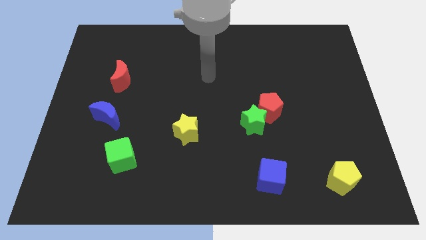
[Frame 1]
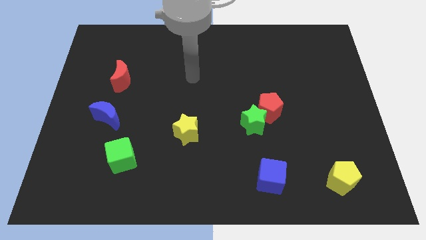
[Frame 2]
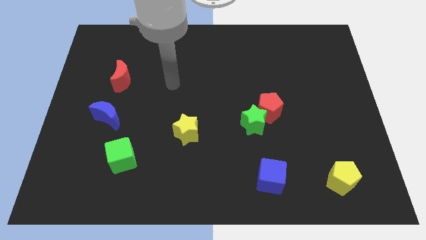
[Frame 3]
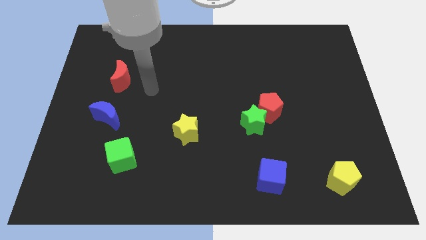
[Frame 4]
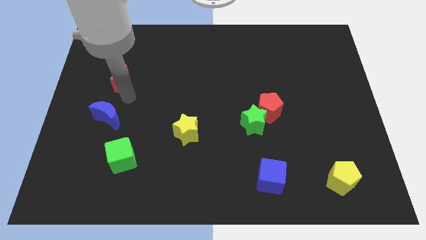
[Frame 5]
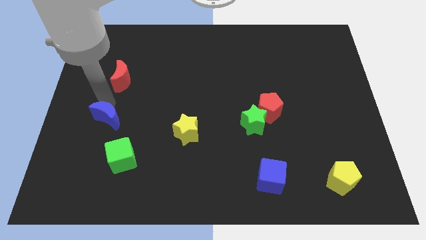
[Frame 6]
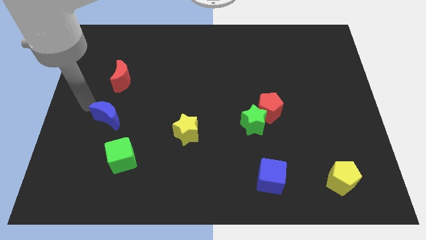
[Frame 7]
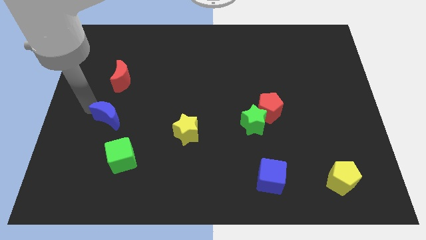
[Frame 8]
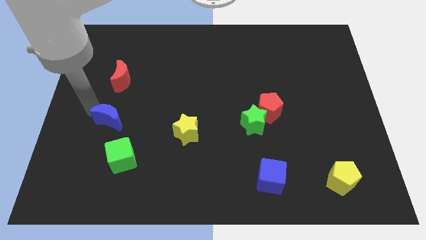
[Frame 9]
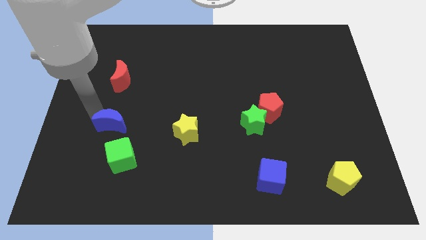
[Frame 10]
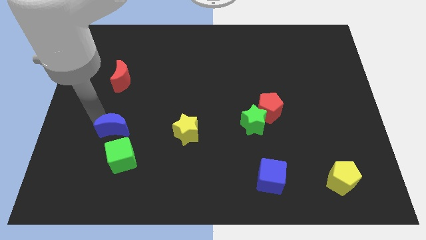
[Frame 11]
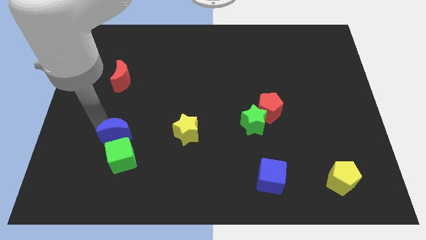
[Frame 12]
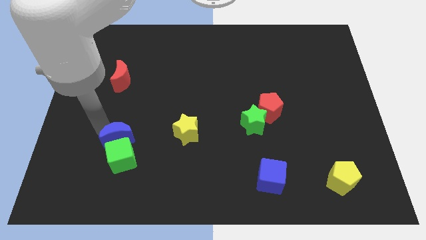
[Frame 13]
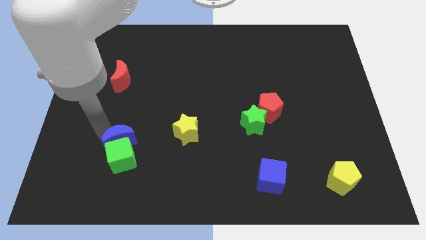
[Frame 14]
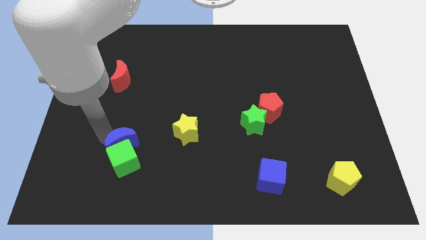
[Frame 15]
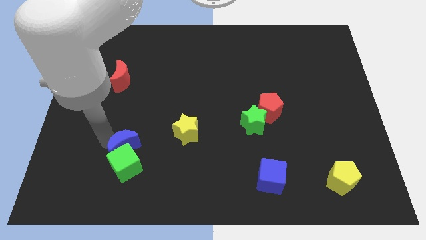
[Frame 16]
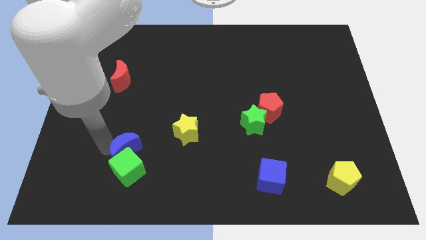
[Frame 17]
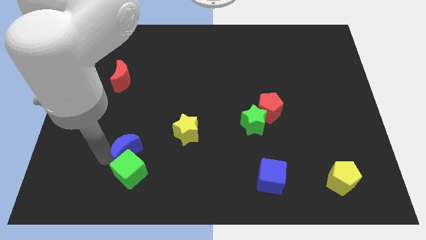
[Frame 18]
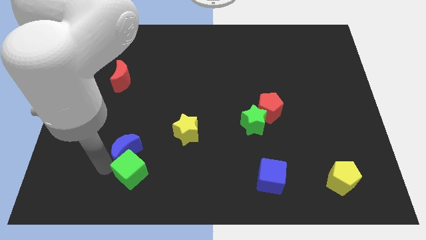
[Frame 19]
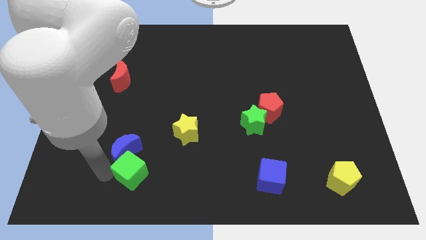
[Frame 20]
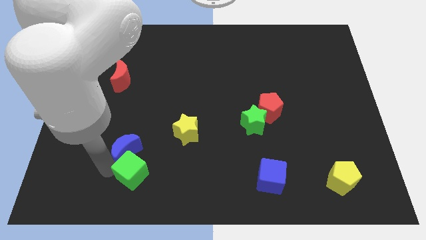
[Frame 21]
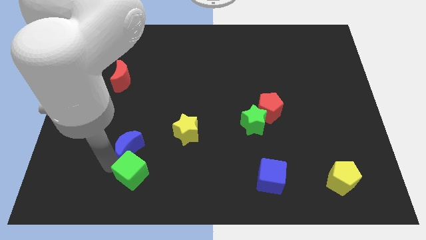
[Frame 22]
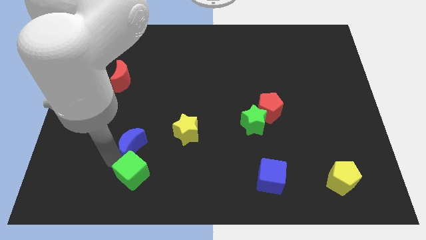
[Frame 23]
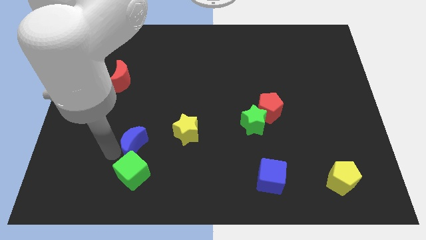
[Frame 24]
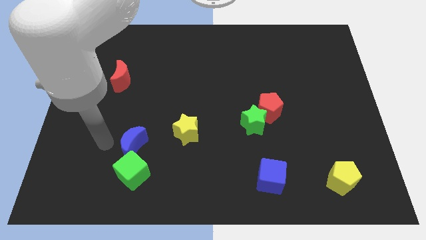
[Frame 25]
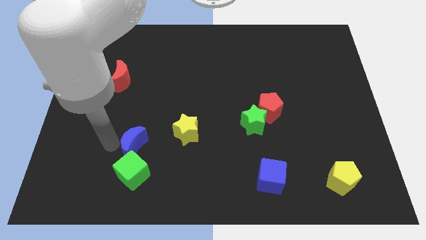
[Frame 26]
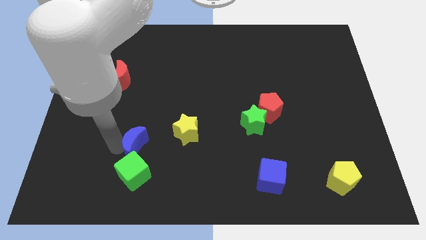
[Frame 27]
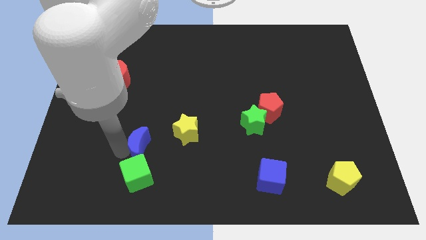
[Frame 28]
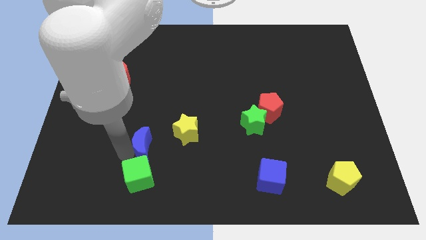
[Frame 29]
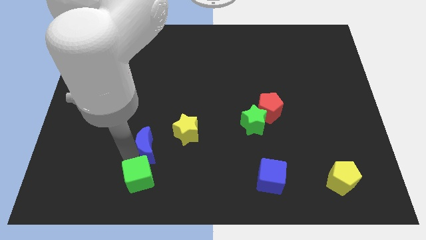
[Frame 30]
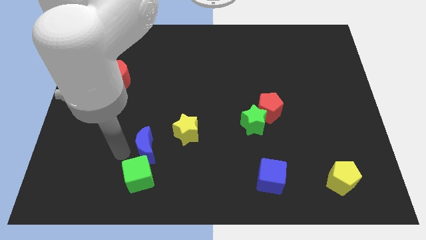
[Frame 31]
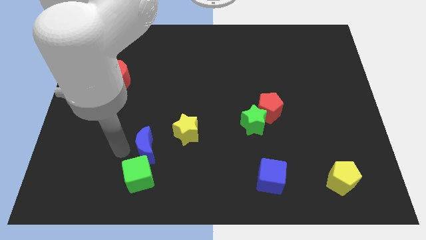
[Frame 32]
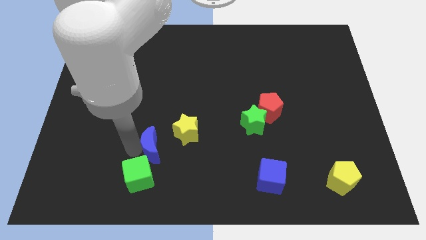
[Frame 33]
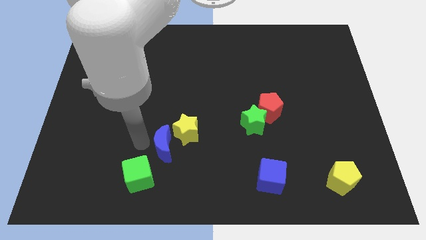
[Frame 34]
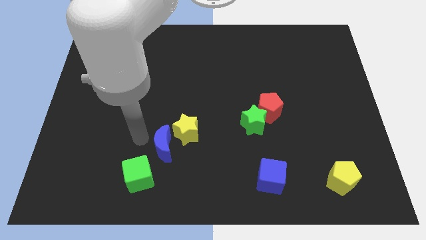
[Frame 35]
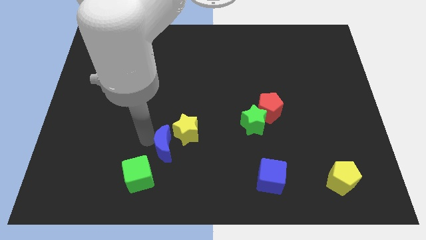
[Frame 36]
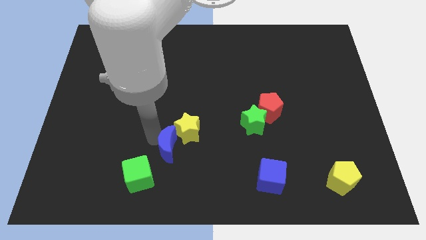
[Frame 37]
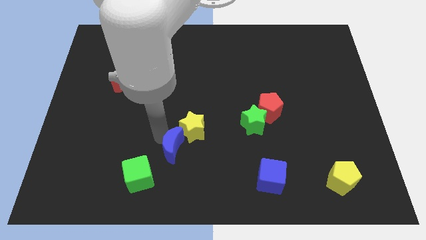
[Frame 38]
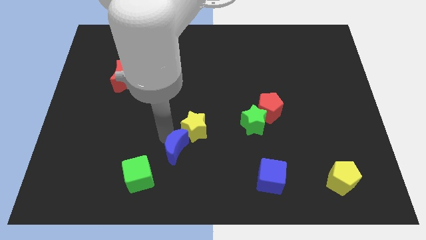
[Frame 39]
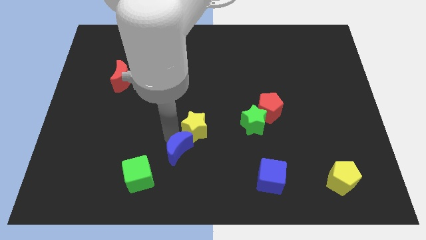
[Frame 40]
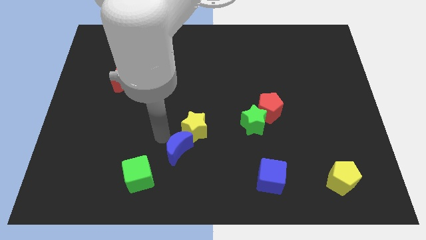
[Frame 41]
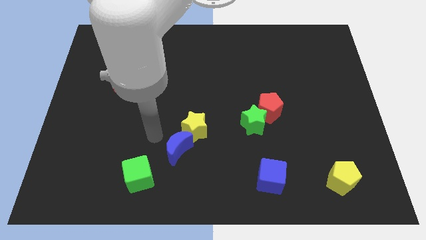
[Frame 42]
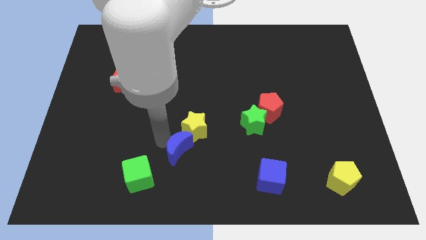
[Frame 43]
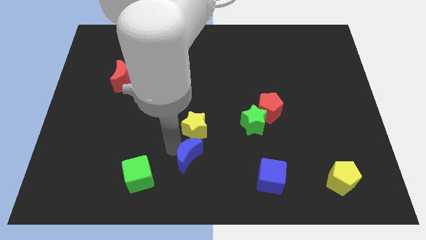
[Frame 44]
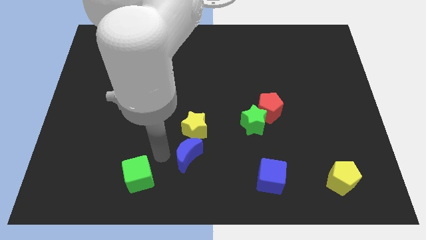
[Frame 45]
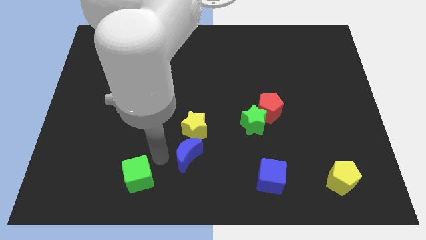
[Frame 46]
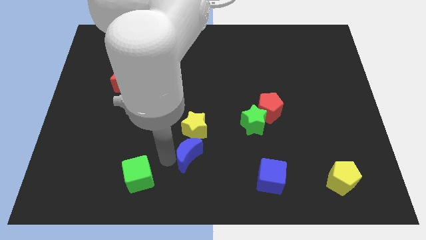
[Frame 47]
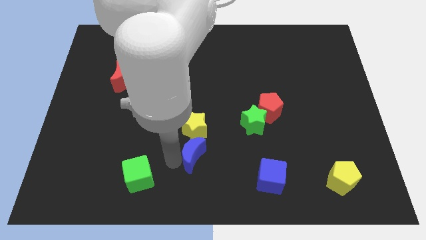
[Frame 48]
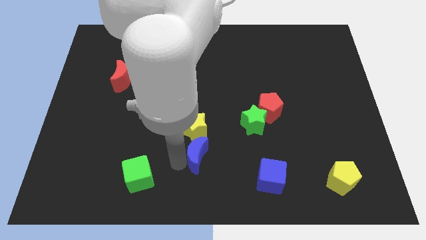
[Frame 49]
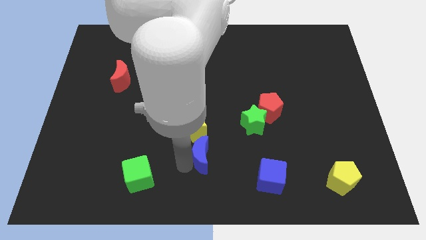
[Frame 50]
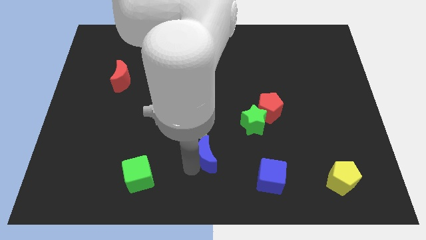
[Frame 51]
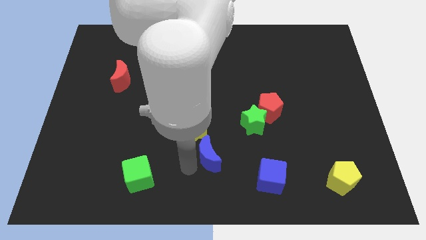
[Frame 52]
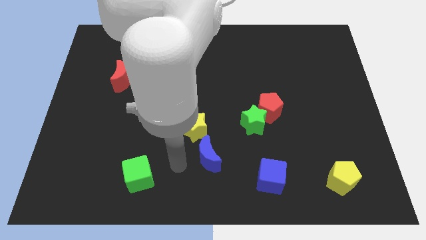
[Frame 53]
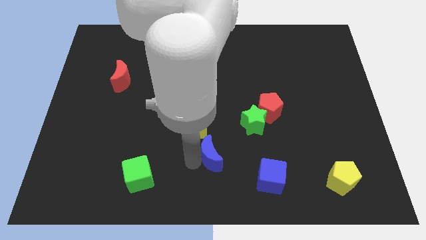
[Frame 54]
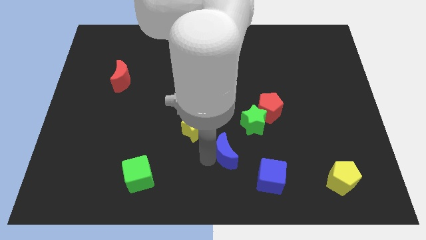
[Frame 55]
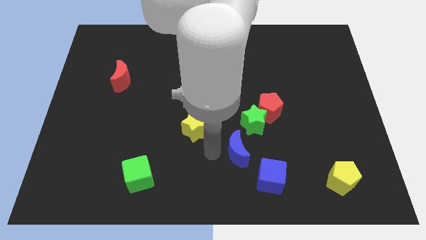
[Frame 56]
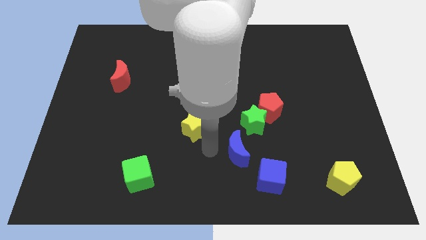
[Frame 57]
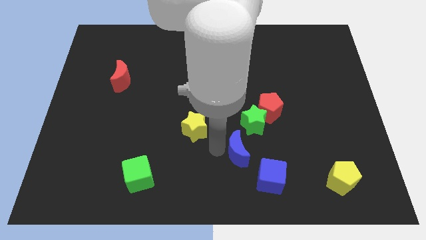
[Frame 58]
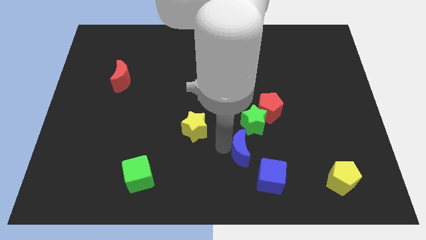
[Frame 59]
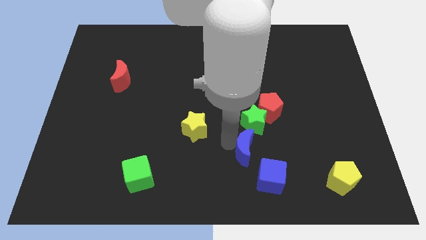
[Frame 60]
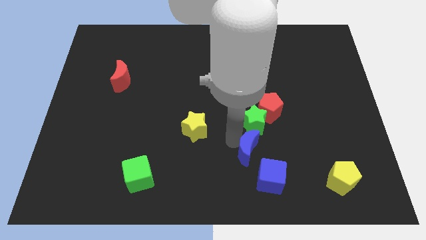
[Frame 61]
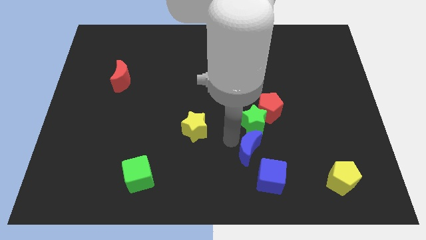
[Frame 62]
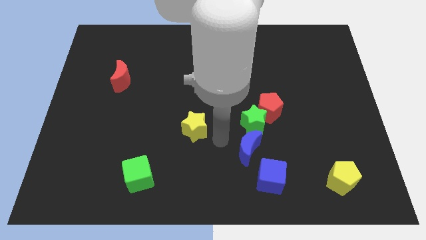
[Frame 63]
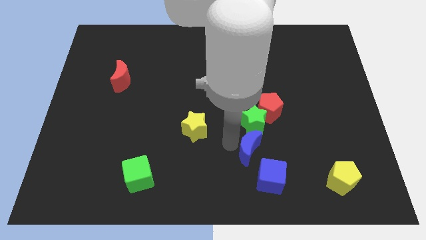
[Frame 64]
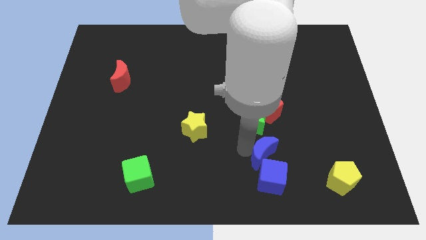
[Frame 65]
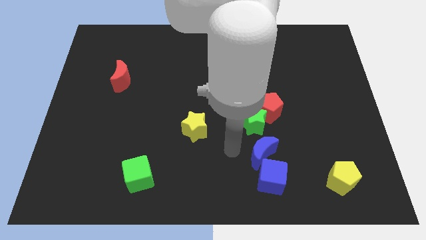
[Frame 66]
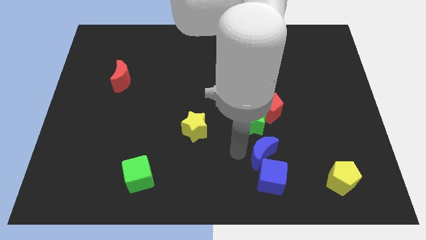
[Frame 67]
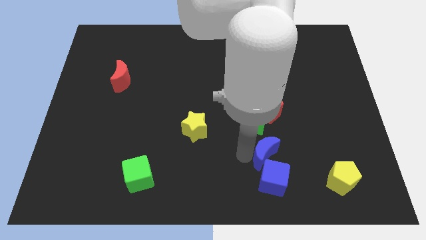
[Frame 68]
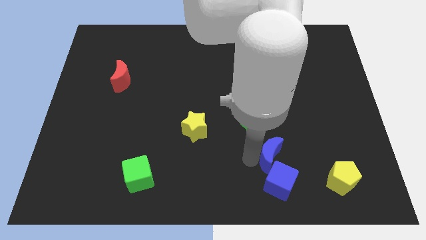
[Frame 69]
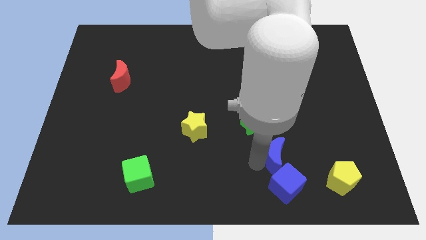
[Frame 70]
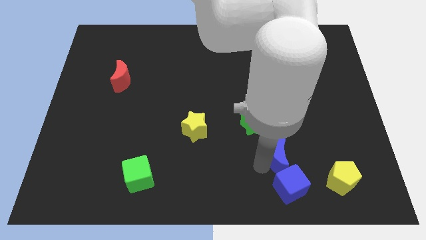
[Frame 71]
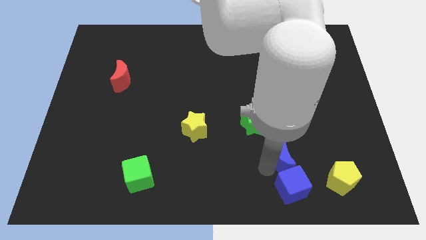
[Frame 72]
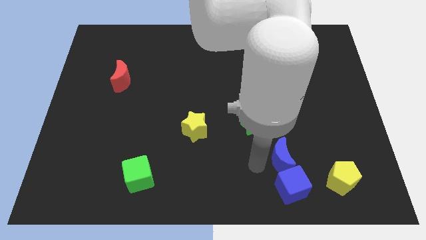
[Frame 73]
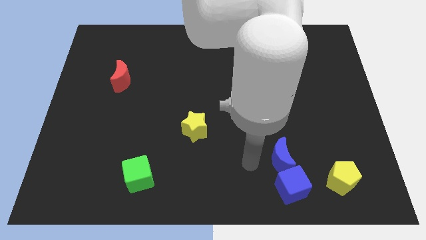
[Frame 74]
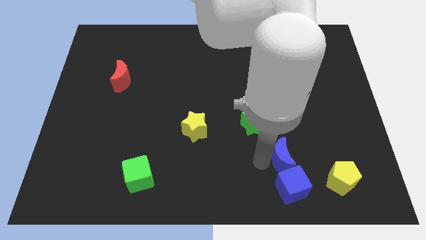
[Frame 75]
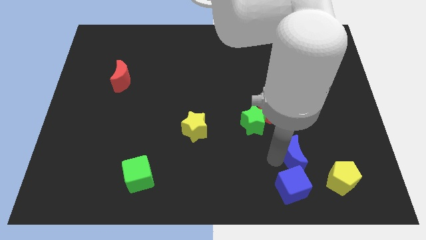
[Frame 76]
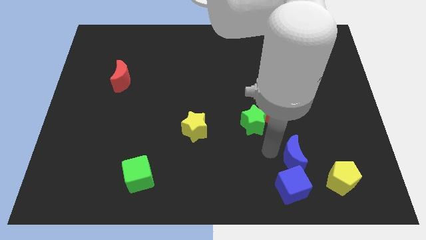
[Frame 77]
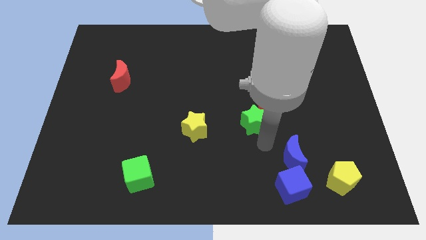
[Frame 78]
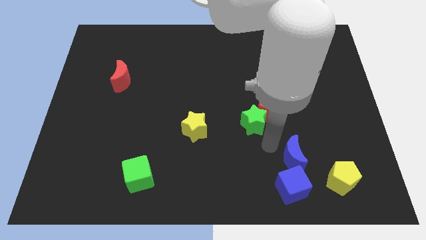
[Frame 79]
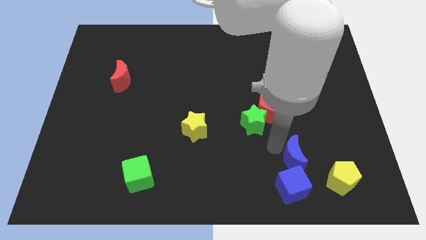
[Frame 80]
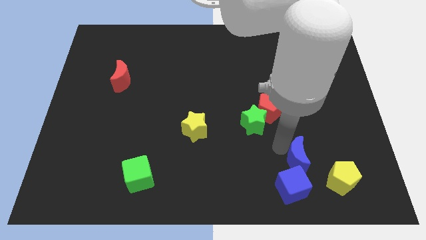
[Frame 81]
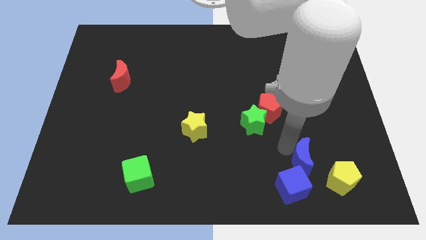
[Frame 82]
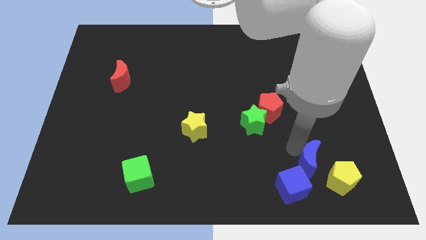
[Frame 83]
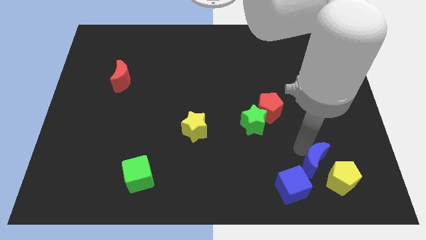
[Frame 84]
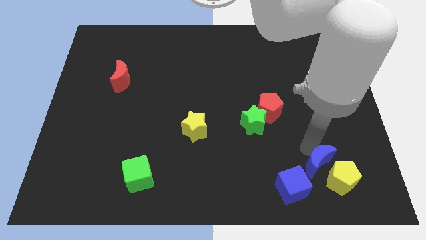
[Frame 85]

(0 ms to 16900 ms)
move the blue moon to the yellow pentagon
